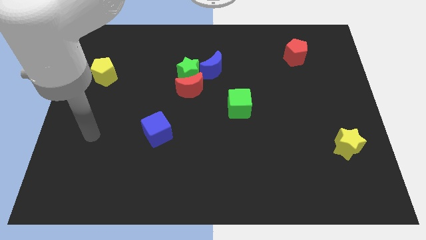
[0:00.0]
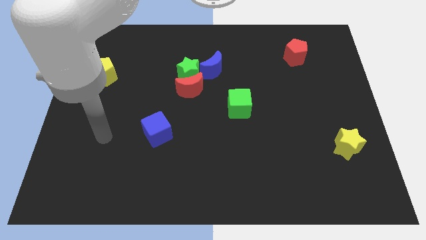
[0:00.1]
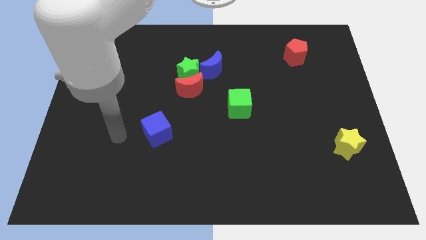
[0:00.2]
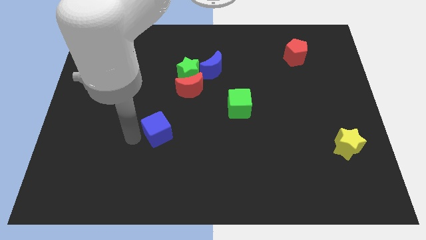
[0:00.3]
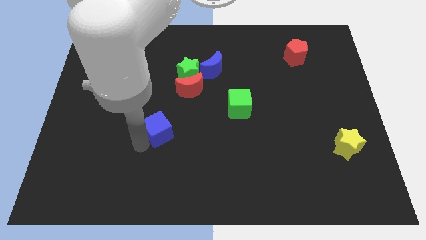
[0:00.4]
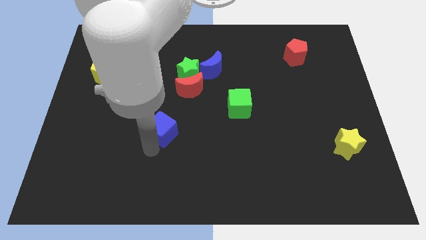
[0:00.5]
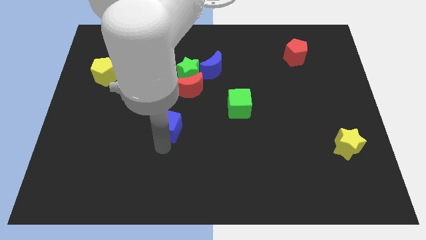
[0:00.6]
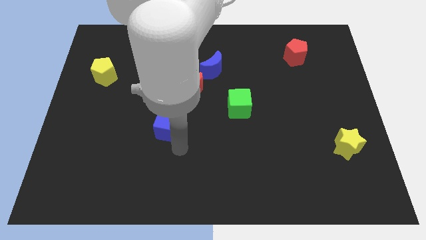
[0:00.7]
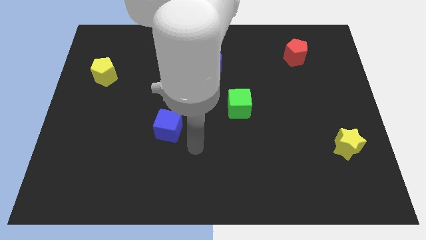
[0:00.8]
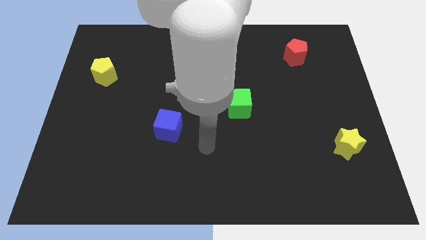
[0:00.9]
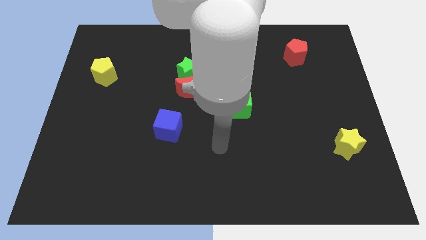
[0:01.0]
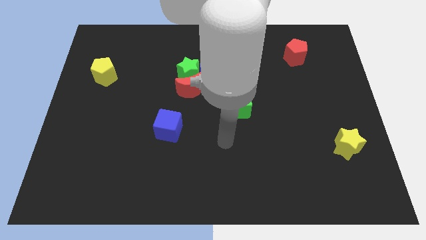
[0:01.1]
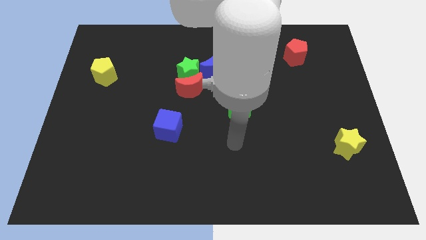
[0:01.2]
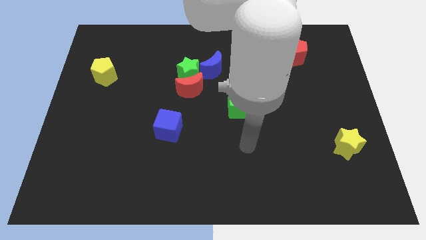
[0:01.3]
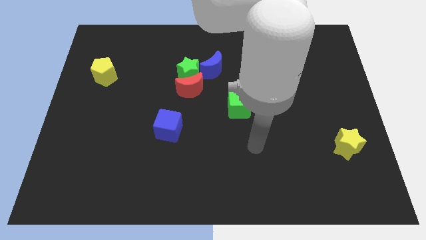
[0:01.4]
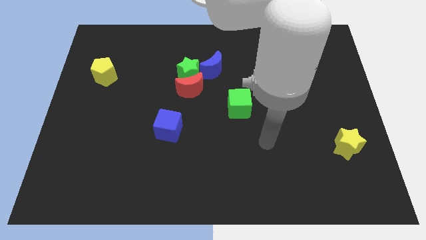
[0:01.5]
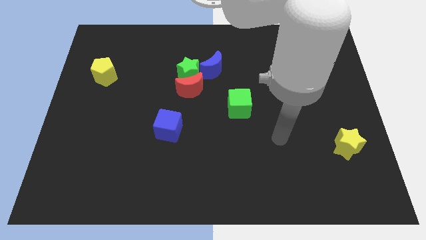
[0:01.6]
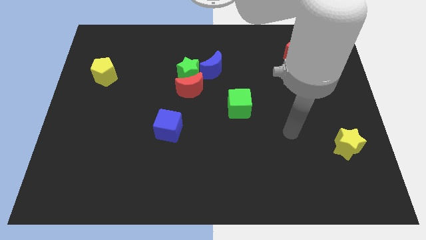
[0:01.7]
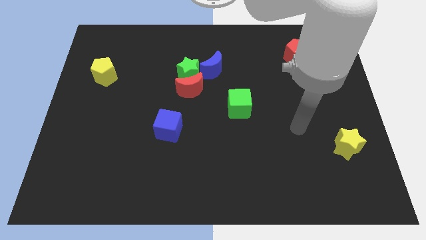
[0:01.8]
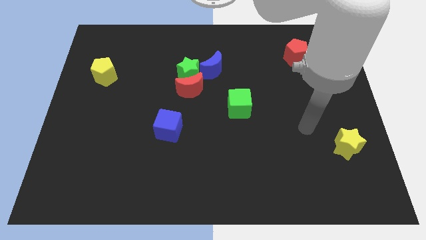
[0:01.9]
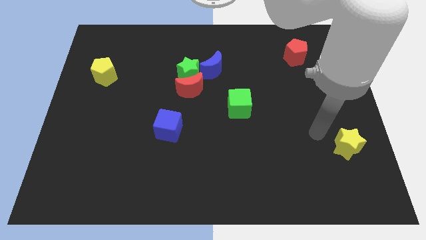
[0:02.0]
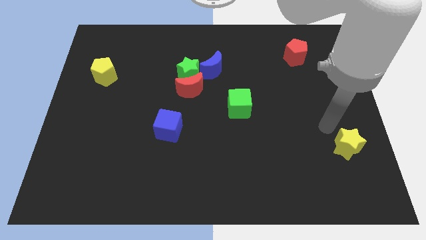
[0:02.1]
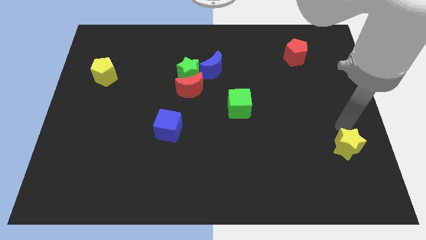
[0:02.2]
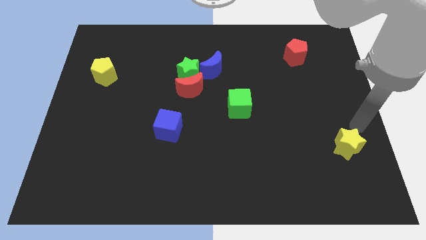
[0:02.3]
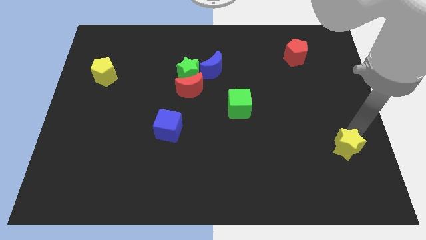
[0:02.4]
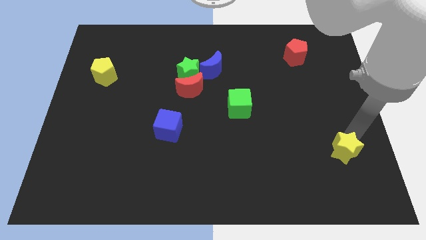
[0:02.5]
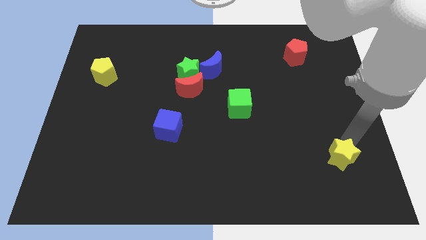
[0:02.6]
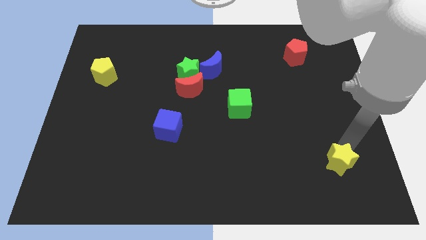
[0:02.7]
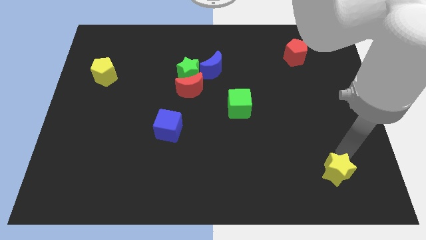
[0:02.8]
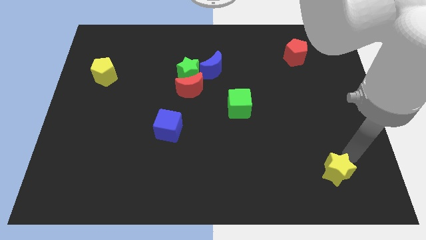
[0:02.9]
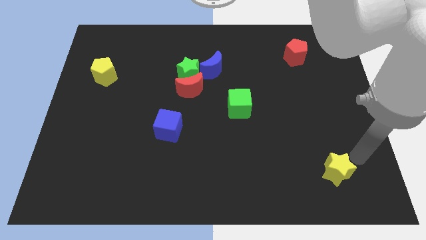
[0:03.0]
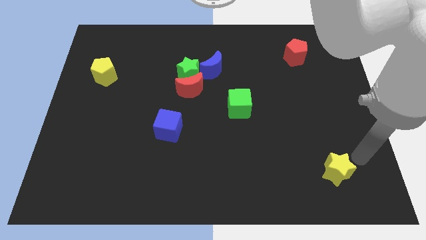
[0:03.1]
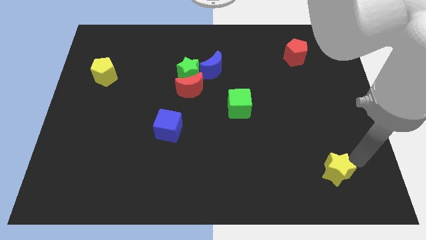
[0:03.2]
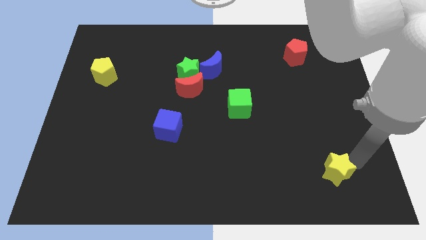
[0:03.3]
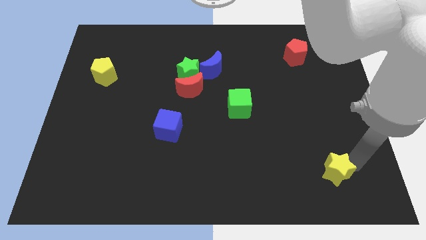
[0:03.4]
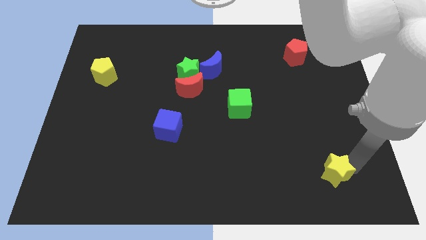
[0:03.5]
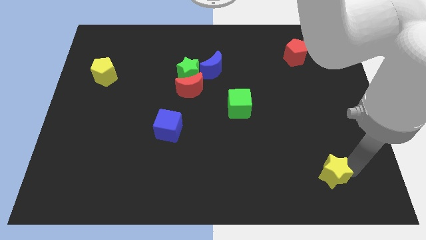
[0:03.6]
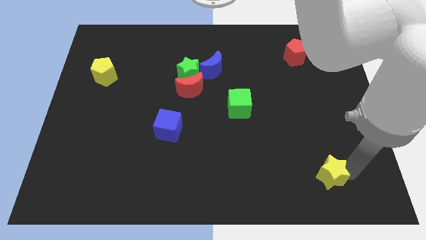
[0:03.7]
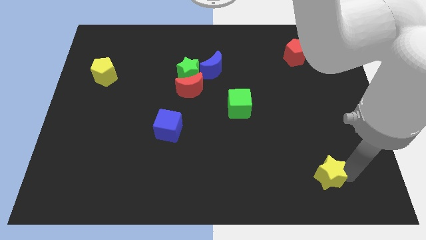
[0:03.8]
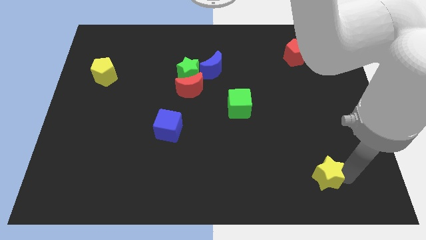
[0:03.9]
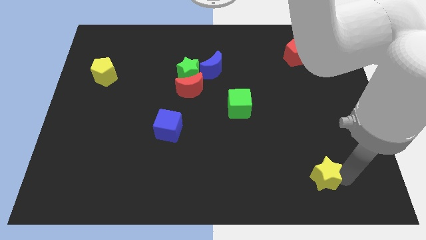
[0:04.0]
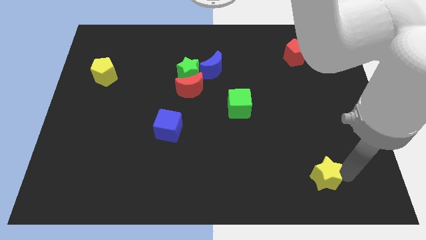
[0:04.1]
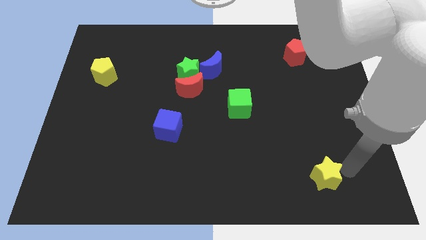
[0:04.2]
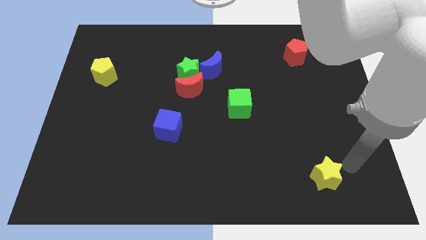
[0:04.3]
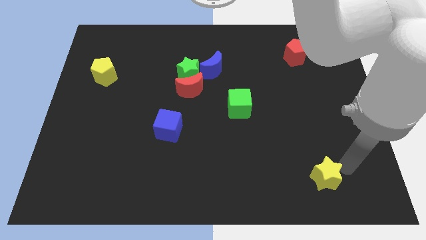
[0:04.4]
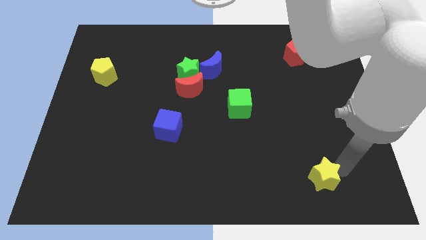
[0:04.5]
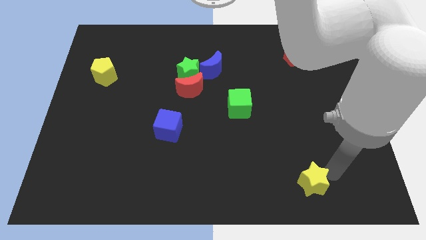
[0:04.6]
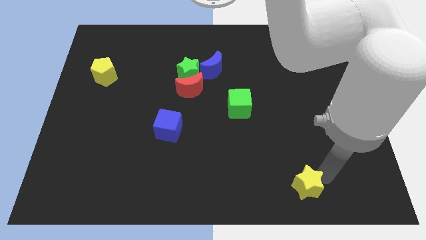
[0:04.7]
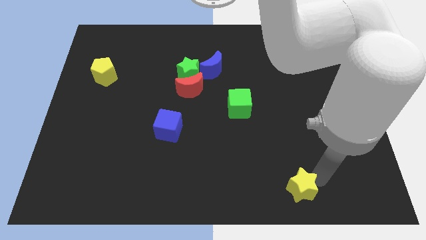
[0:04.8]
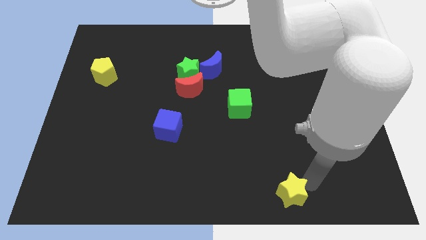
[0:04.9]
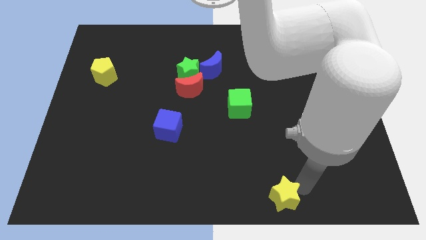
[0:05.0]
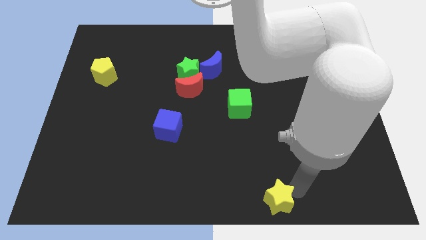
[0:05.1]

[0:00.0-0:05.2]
slide the yellow star to the bottom side

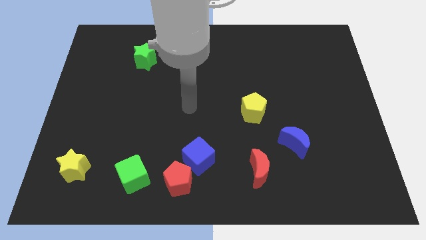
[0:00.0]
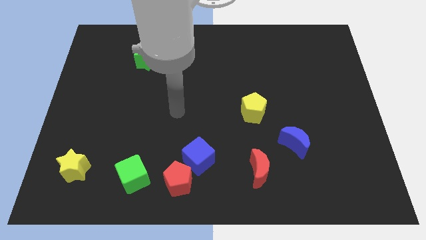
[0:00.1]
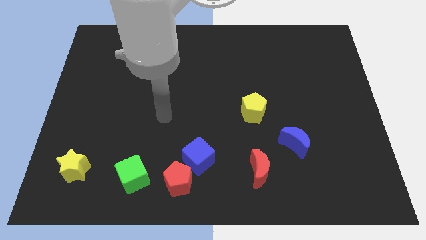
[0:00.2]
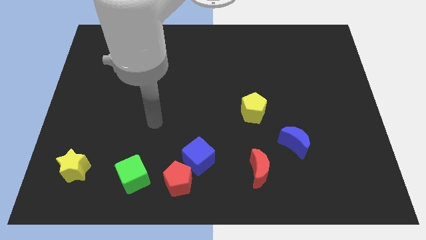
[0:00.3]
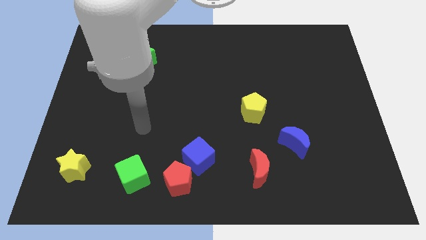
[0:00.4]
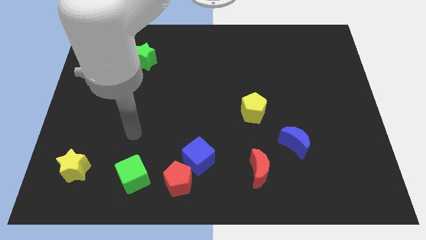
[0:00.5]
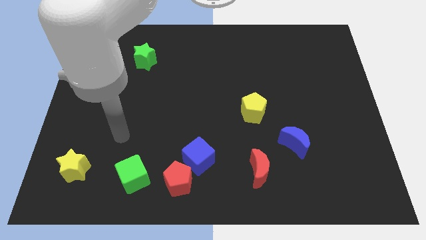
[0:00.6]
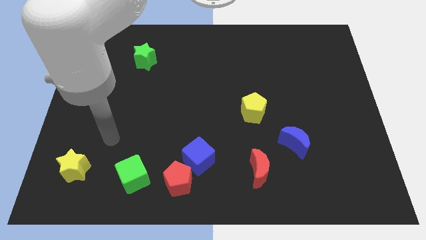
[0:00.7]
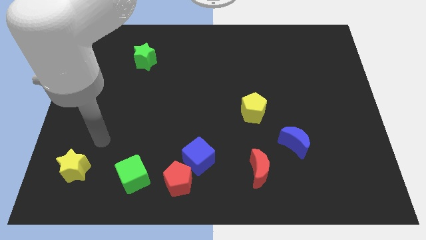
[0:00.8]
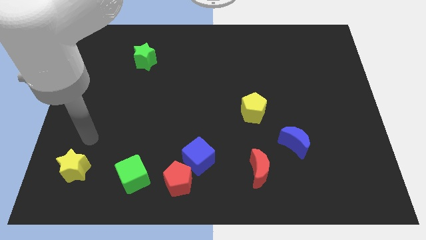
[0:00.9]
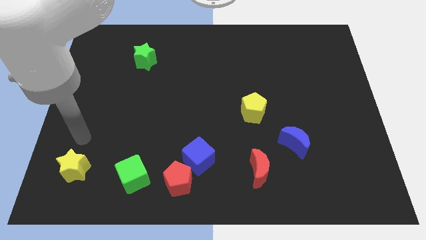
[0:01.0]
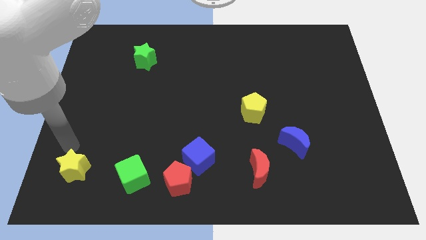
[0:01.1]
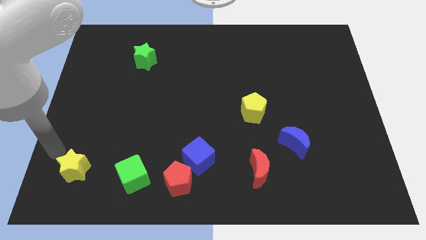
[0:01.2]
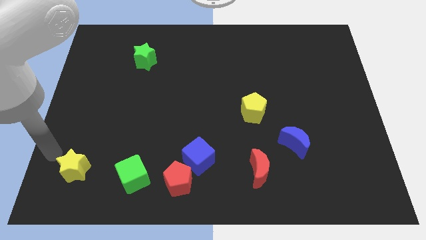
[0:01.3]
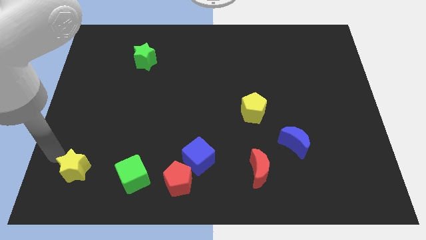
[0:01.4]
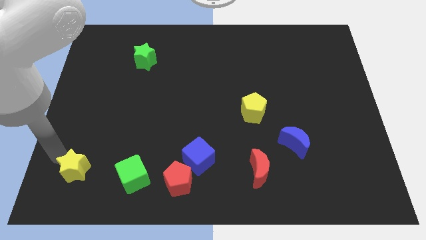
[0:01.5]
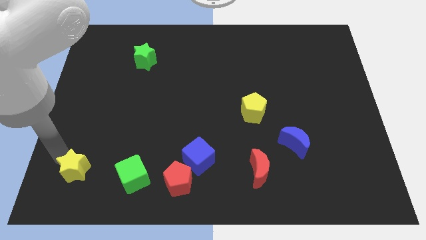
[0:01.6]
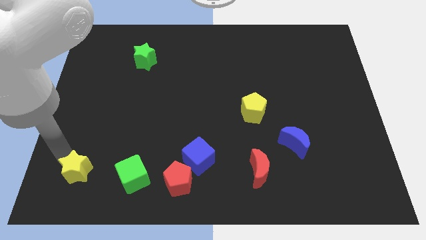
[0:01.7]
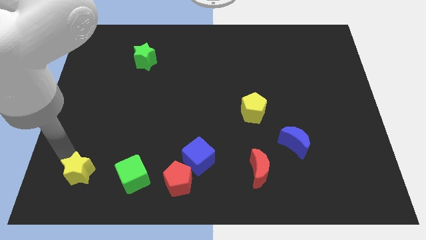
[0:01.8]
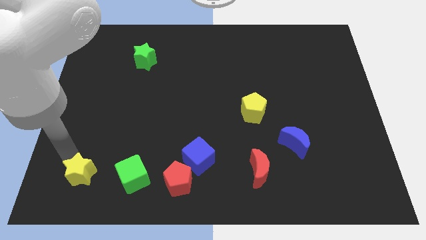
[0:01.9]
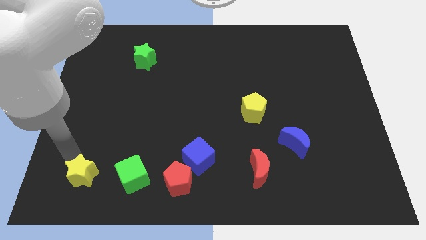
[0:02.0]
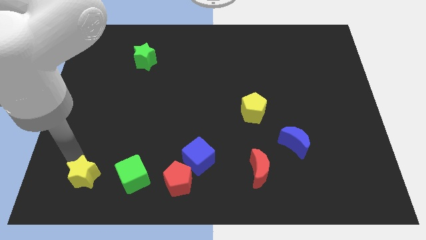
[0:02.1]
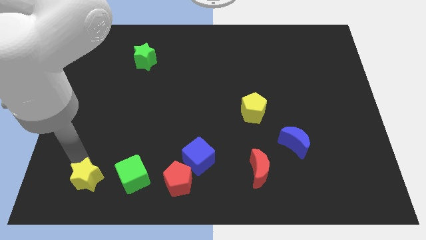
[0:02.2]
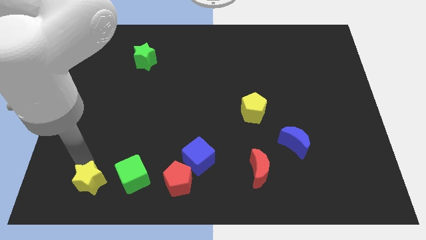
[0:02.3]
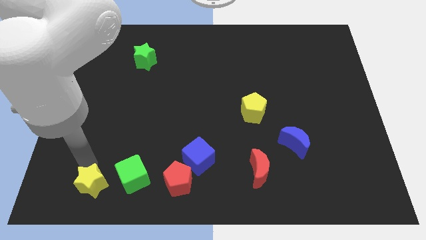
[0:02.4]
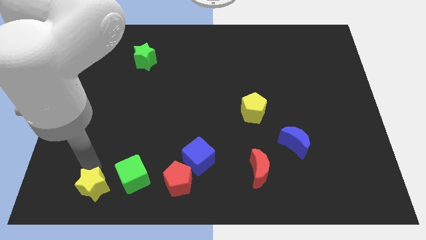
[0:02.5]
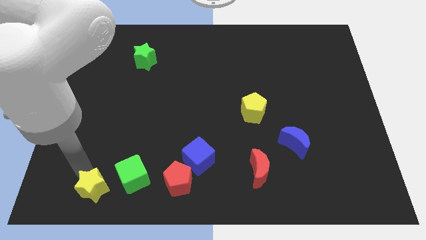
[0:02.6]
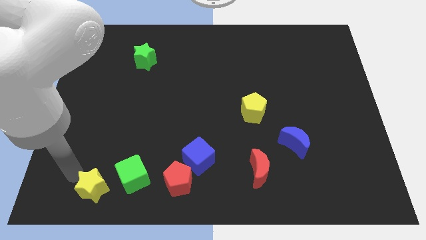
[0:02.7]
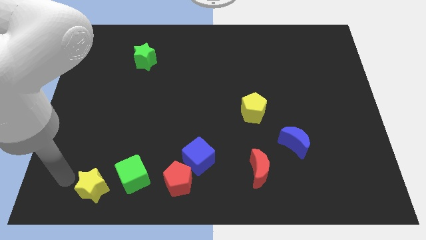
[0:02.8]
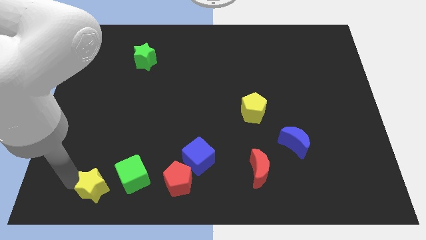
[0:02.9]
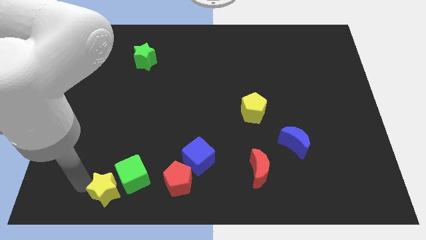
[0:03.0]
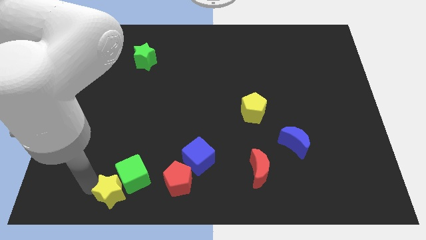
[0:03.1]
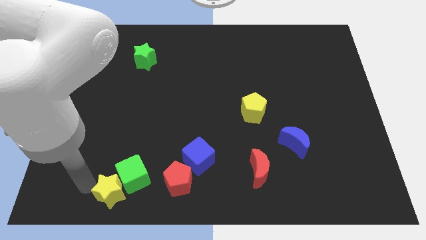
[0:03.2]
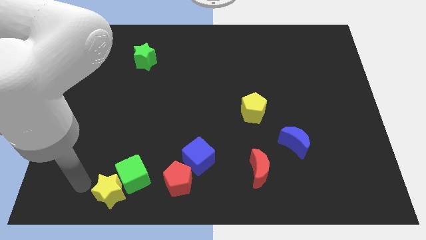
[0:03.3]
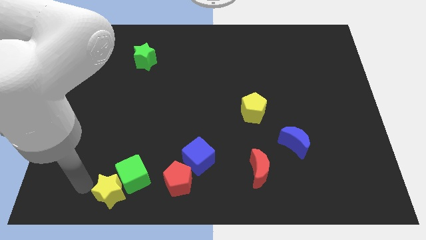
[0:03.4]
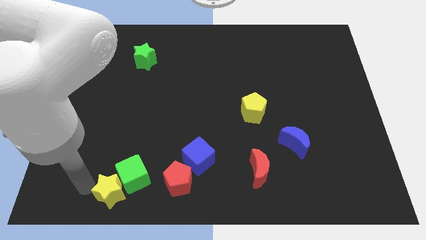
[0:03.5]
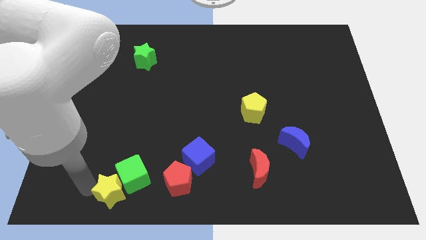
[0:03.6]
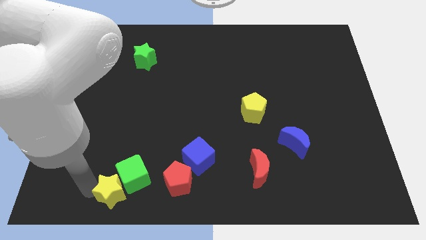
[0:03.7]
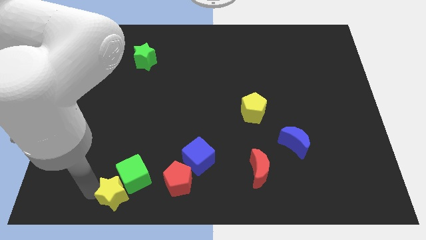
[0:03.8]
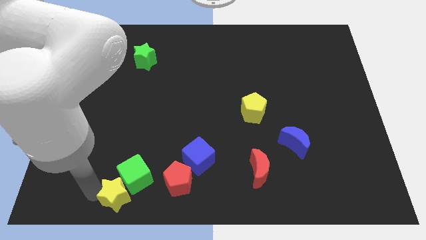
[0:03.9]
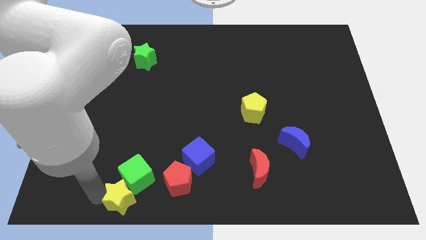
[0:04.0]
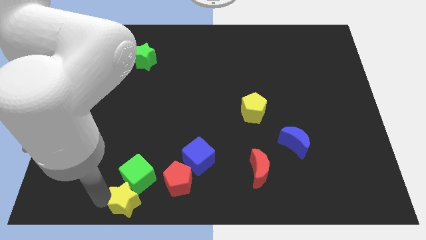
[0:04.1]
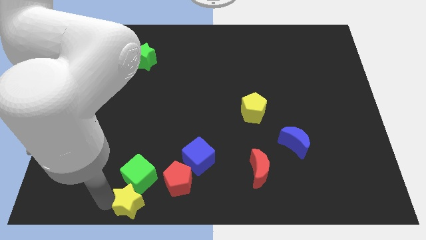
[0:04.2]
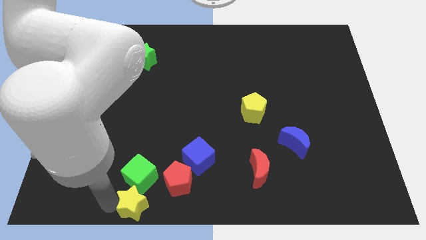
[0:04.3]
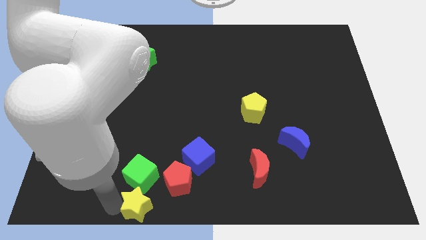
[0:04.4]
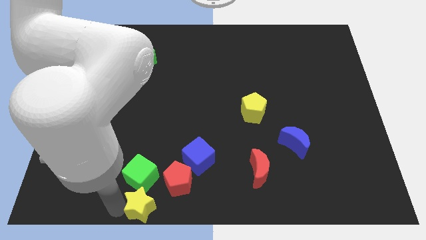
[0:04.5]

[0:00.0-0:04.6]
put the yellow star to the bottom
